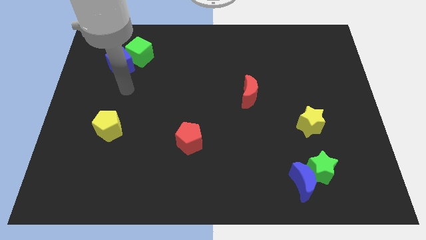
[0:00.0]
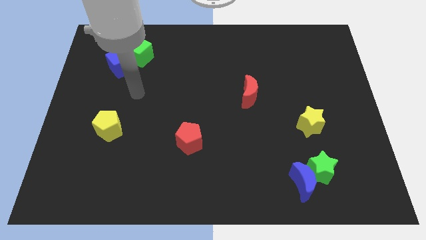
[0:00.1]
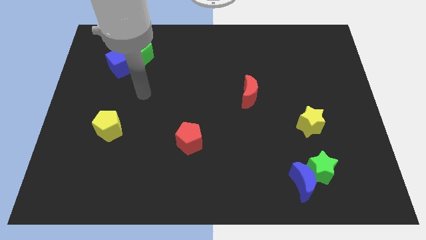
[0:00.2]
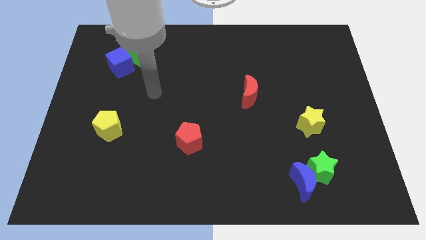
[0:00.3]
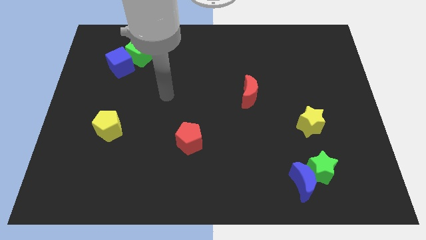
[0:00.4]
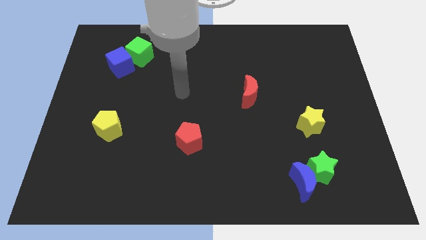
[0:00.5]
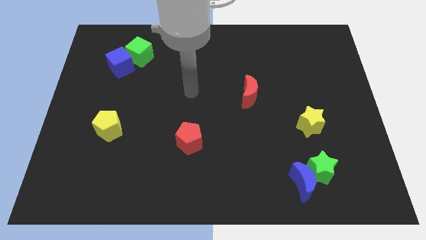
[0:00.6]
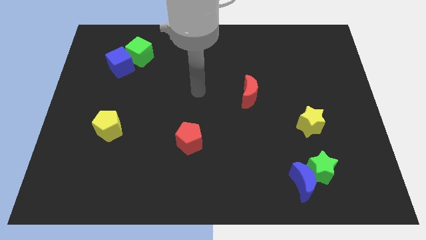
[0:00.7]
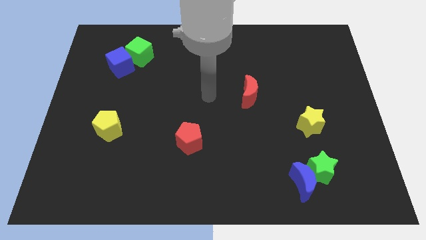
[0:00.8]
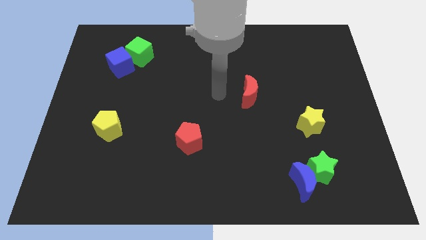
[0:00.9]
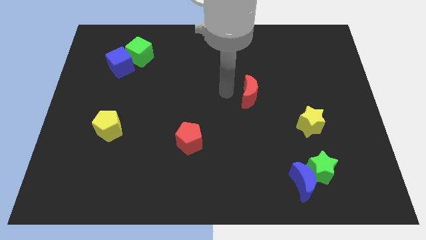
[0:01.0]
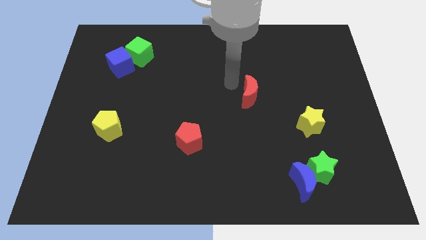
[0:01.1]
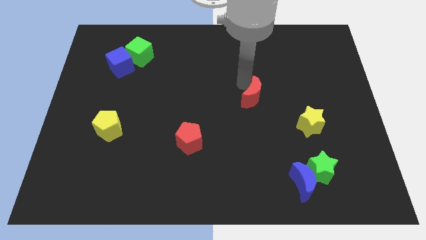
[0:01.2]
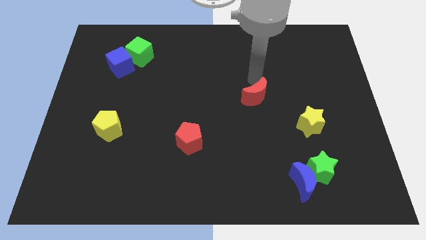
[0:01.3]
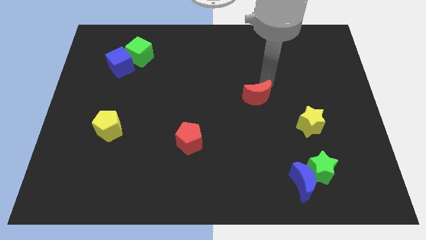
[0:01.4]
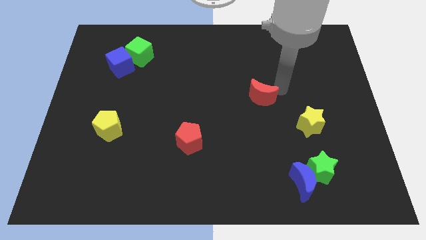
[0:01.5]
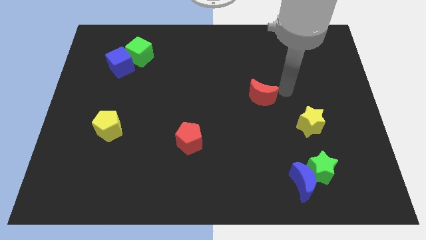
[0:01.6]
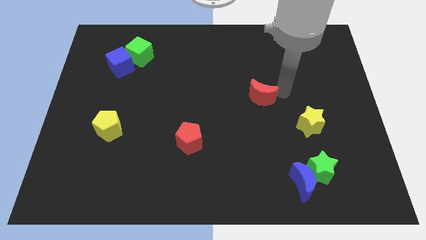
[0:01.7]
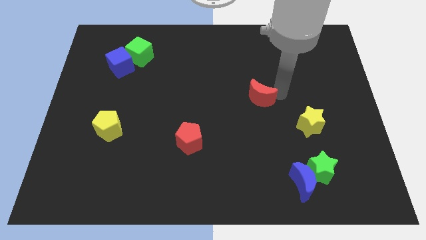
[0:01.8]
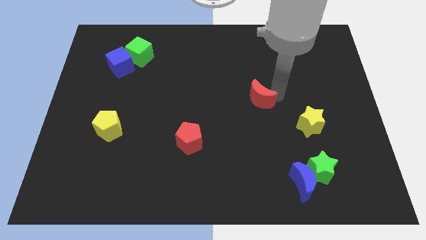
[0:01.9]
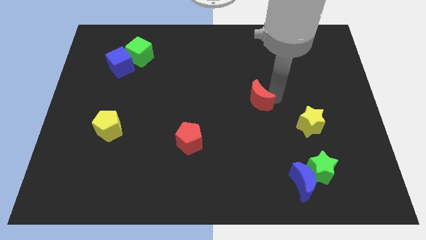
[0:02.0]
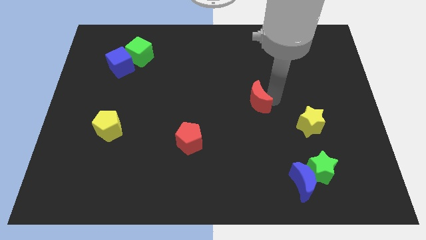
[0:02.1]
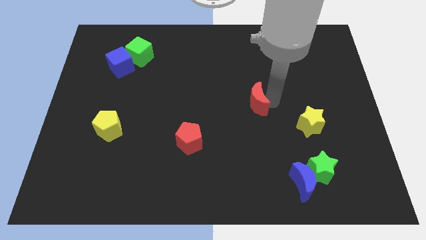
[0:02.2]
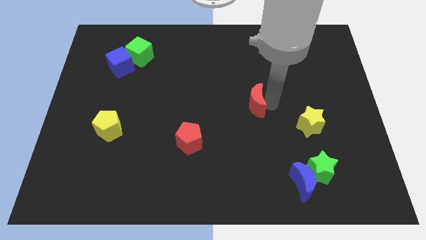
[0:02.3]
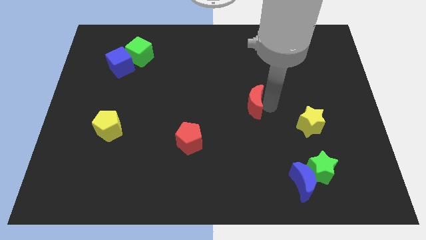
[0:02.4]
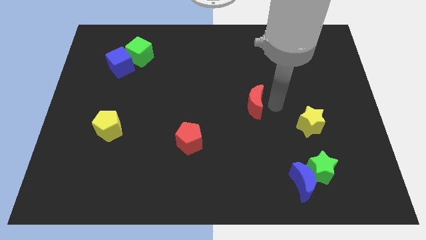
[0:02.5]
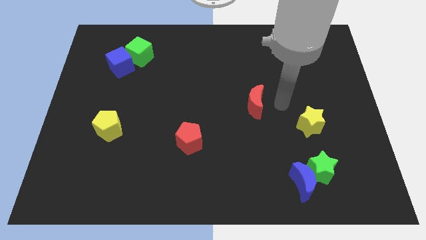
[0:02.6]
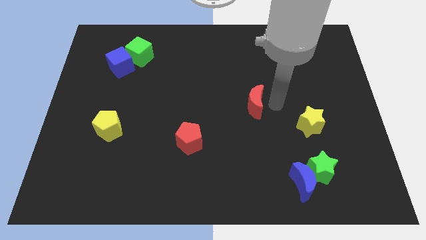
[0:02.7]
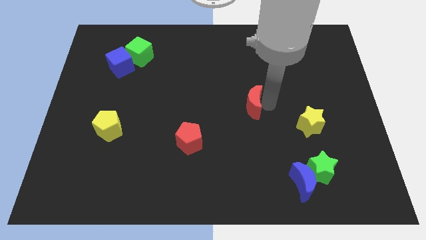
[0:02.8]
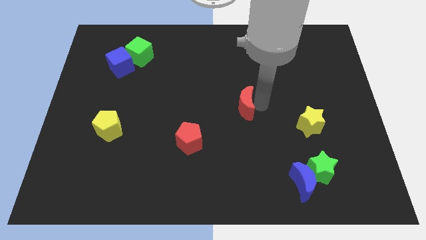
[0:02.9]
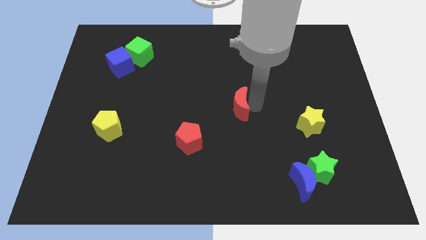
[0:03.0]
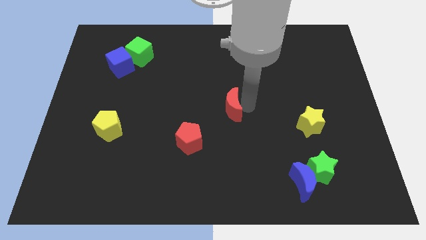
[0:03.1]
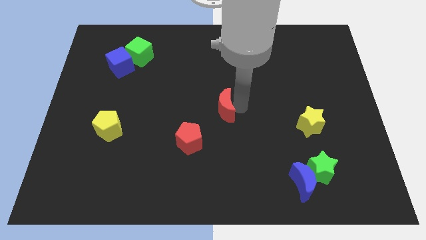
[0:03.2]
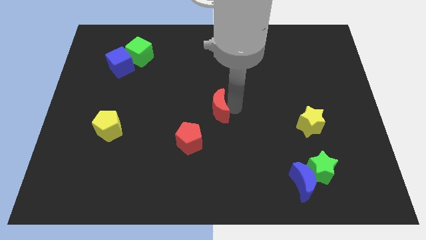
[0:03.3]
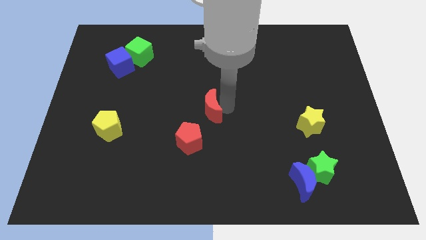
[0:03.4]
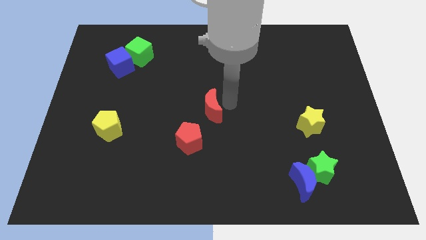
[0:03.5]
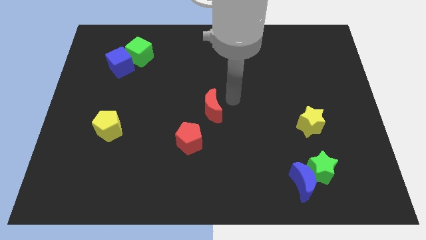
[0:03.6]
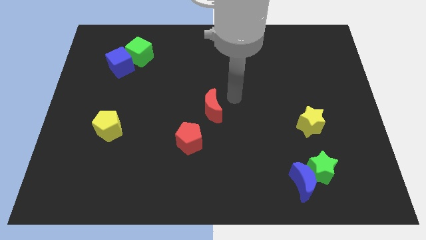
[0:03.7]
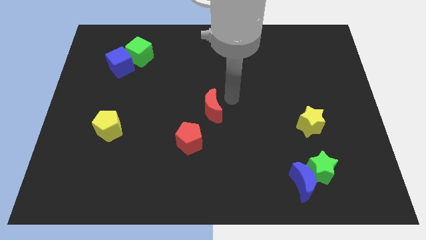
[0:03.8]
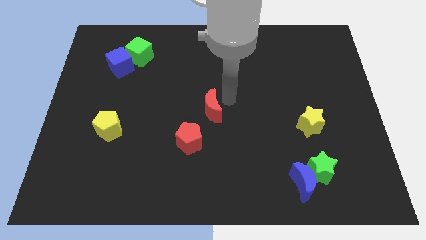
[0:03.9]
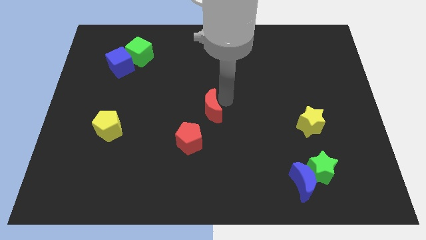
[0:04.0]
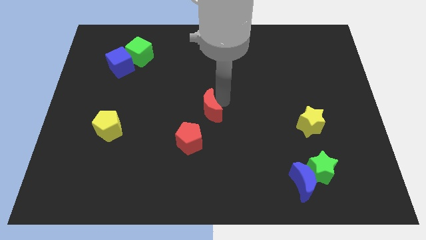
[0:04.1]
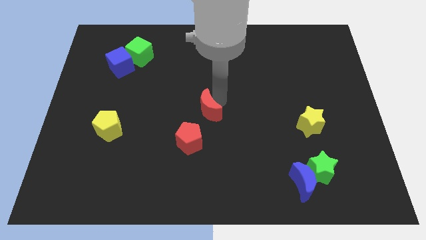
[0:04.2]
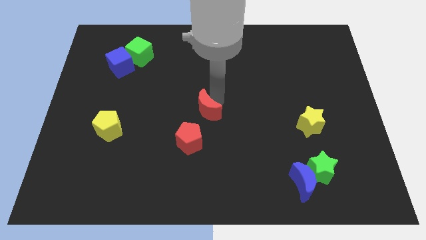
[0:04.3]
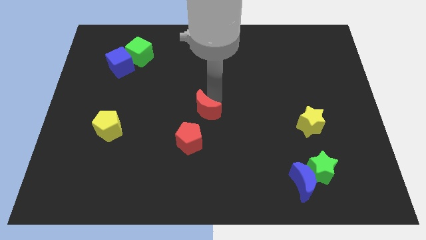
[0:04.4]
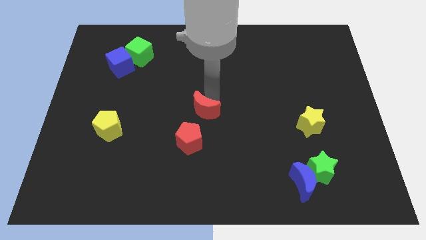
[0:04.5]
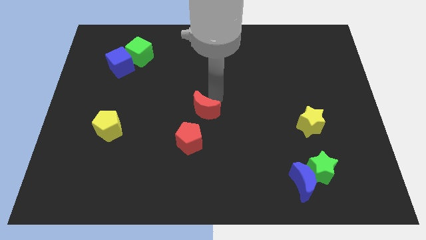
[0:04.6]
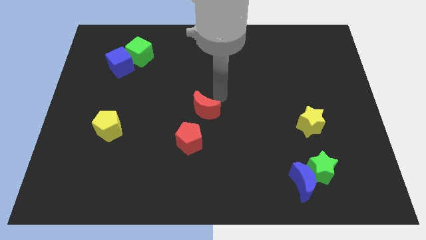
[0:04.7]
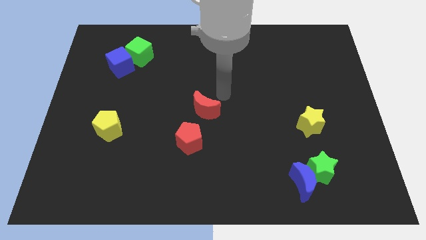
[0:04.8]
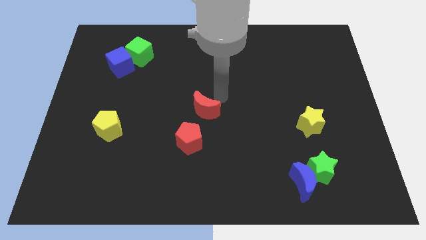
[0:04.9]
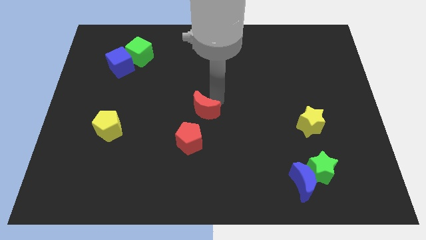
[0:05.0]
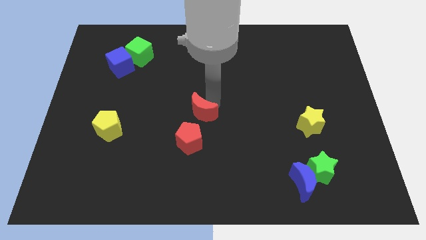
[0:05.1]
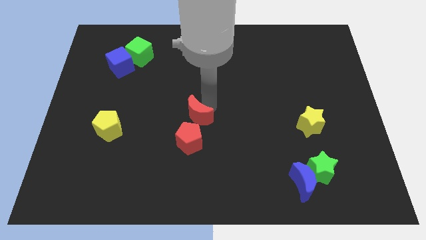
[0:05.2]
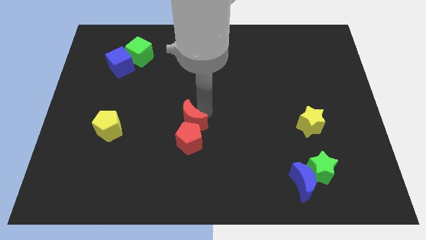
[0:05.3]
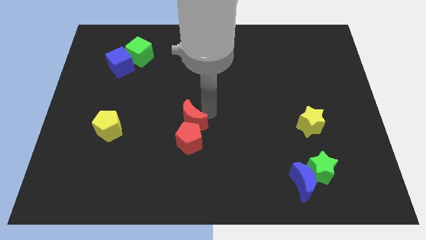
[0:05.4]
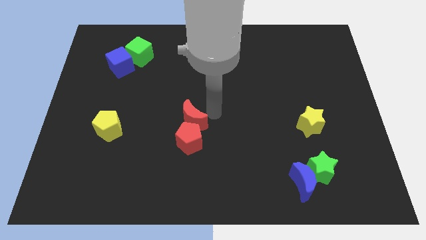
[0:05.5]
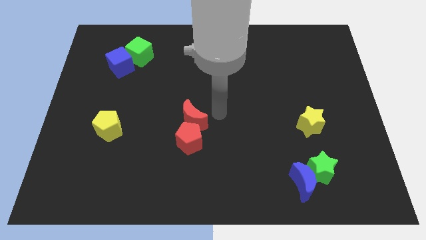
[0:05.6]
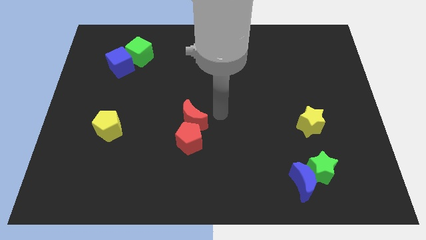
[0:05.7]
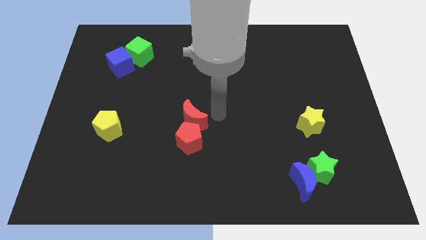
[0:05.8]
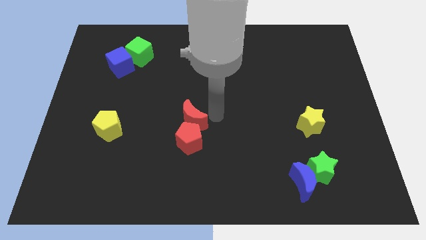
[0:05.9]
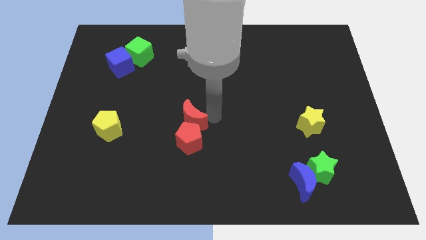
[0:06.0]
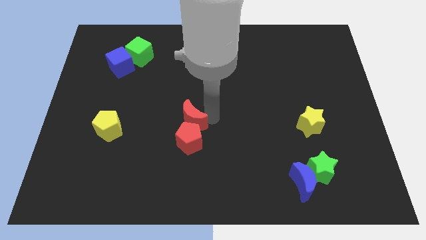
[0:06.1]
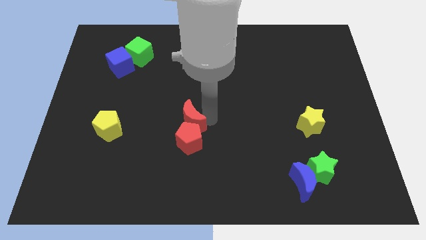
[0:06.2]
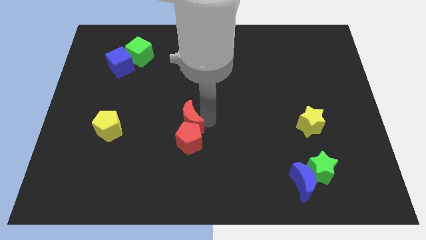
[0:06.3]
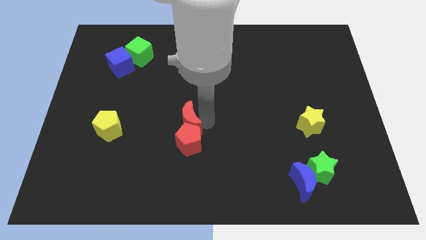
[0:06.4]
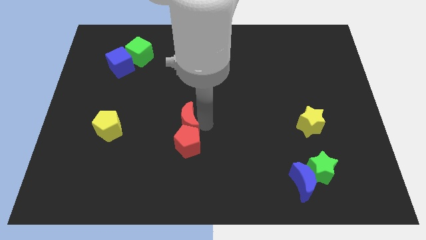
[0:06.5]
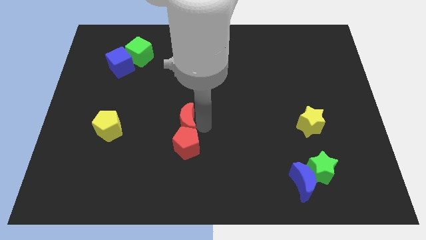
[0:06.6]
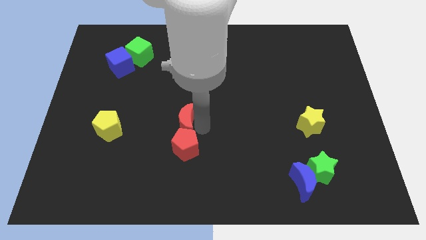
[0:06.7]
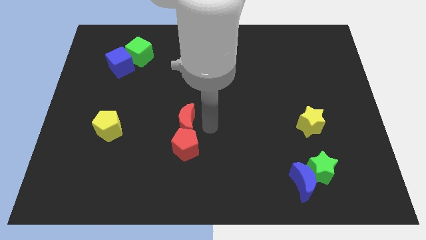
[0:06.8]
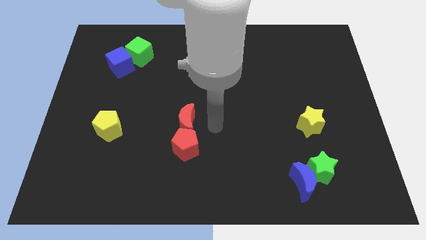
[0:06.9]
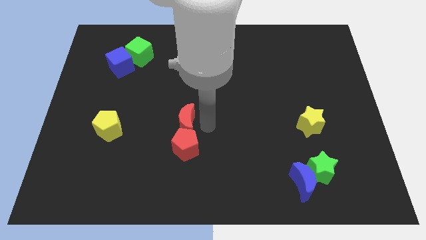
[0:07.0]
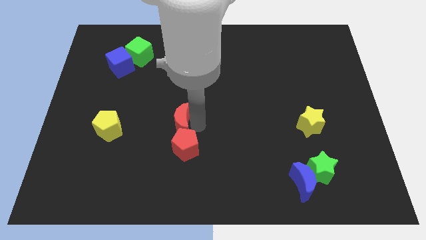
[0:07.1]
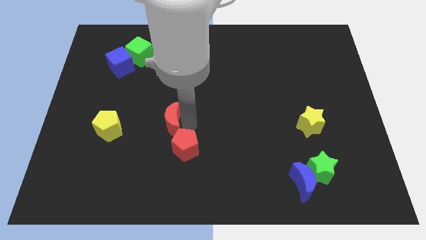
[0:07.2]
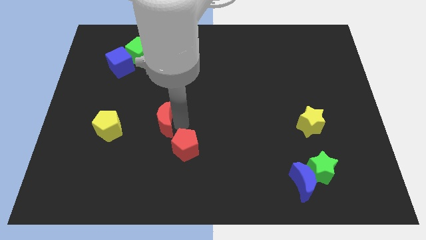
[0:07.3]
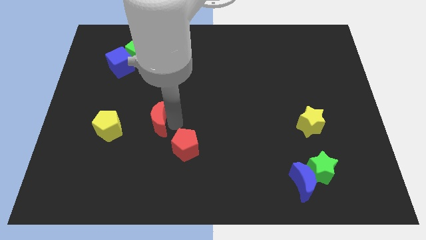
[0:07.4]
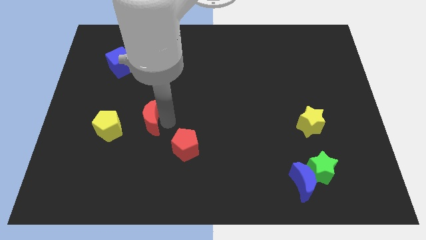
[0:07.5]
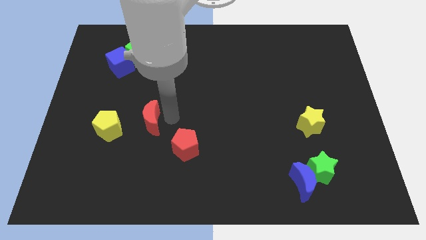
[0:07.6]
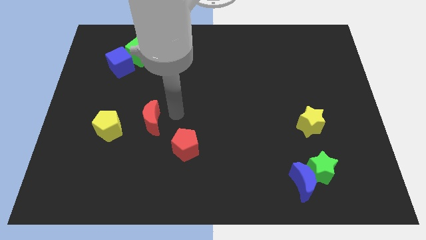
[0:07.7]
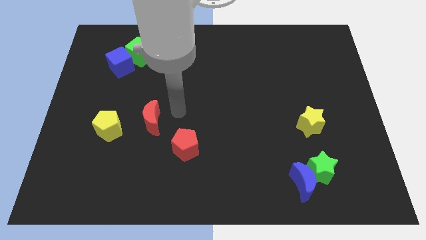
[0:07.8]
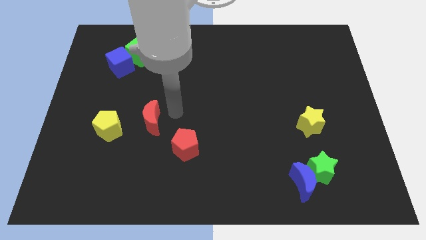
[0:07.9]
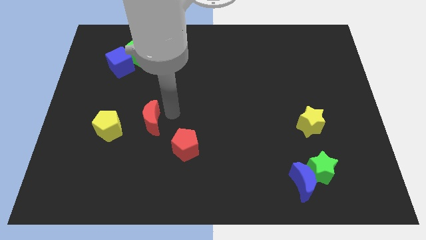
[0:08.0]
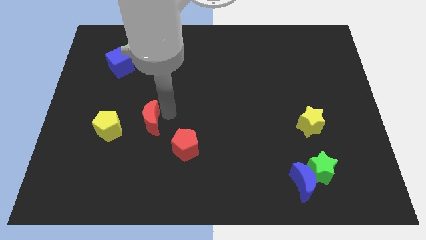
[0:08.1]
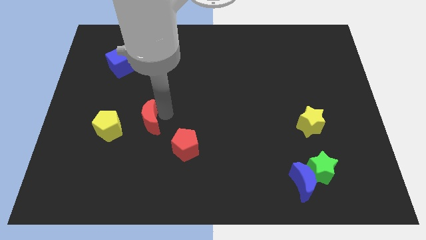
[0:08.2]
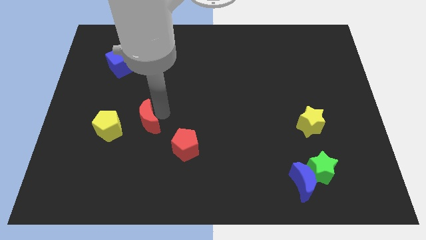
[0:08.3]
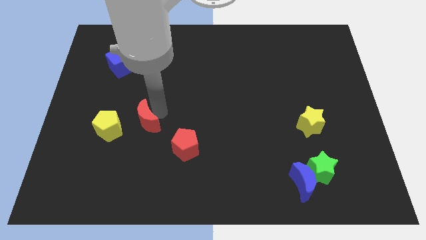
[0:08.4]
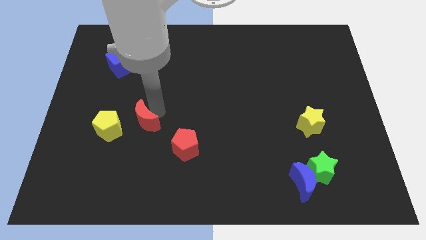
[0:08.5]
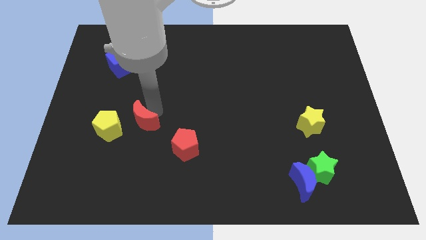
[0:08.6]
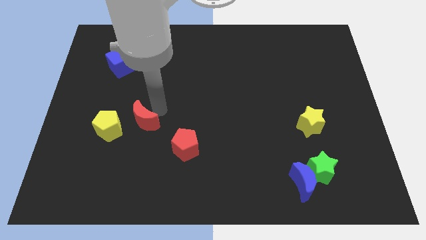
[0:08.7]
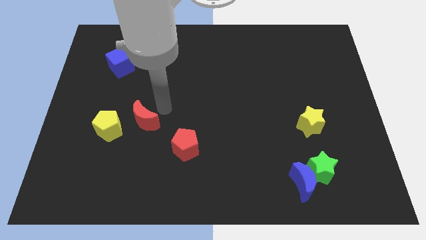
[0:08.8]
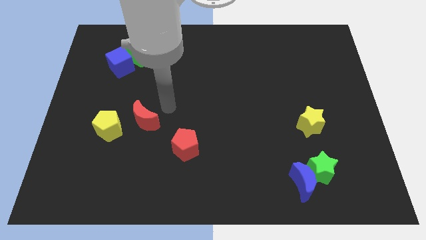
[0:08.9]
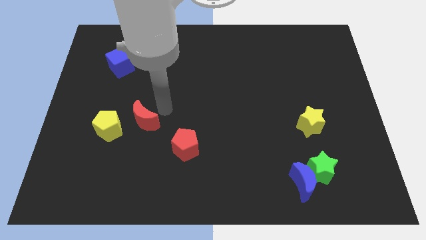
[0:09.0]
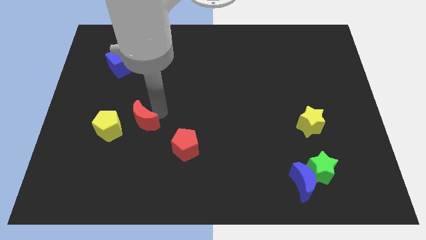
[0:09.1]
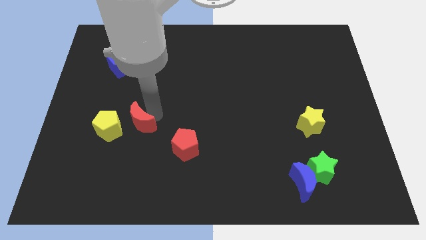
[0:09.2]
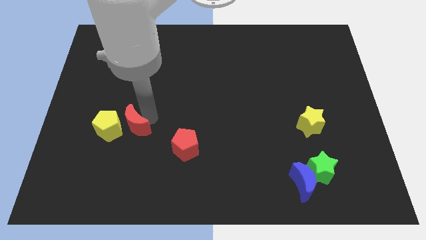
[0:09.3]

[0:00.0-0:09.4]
slide the red moon close to the yellow pentagon
